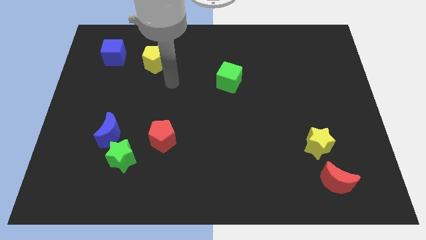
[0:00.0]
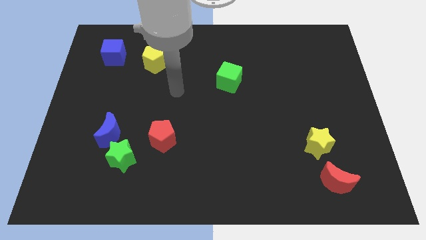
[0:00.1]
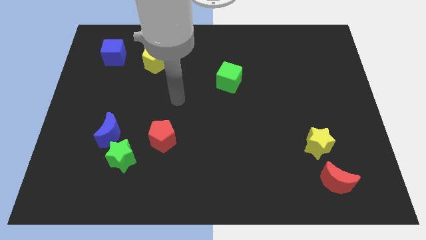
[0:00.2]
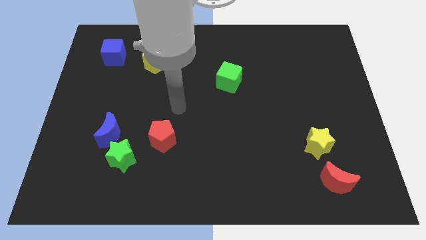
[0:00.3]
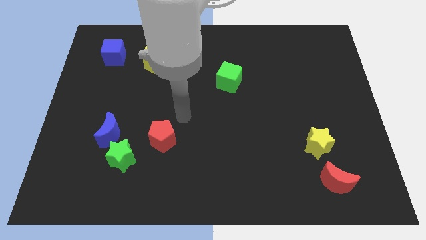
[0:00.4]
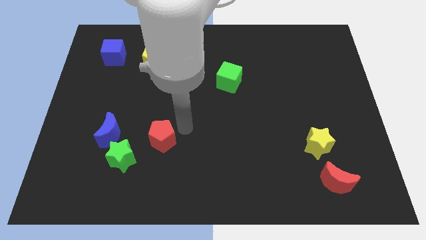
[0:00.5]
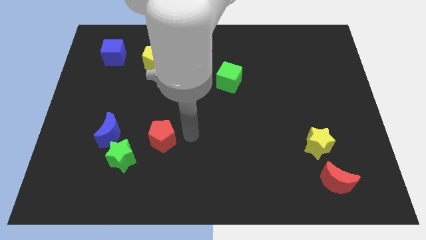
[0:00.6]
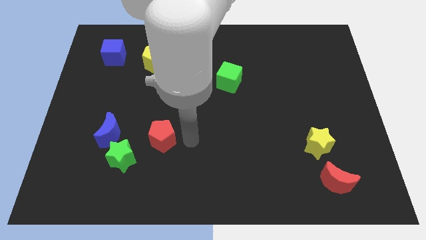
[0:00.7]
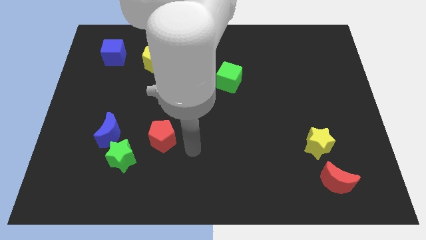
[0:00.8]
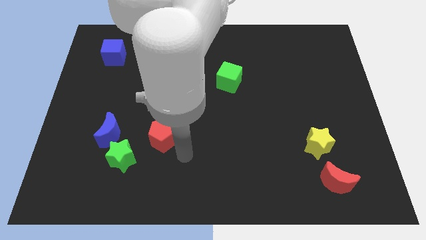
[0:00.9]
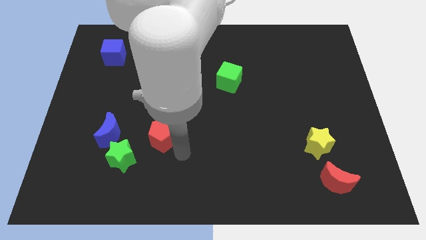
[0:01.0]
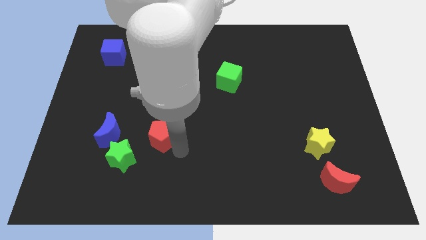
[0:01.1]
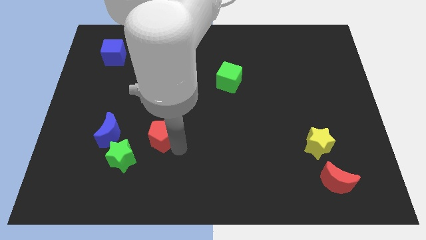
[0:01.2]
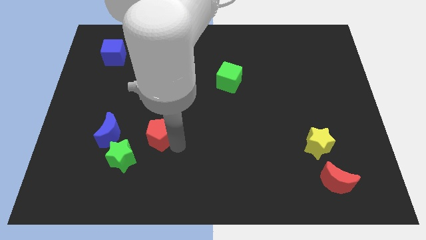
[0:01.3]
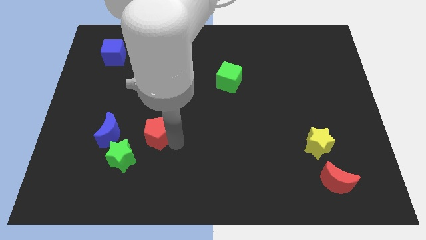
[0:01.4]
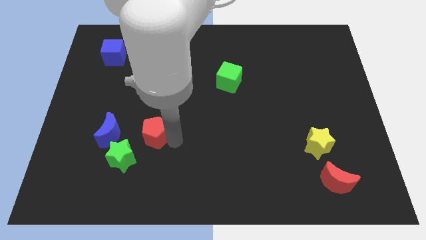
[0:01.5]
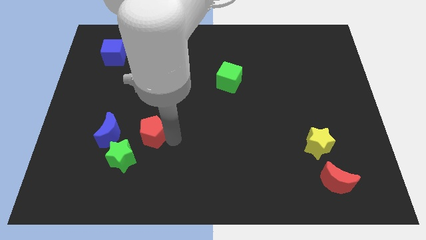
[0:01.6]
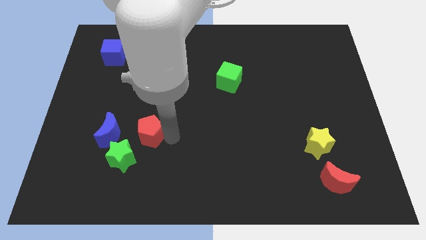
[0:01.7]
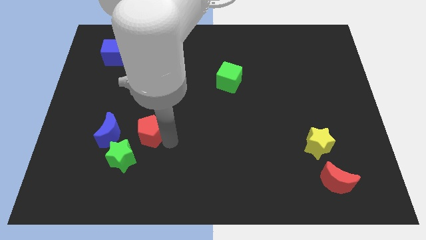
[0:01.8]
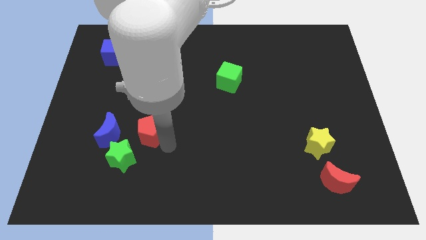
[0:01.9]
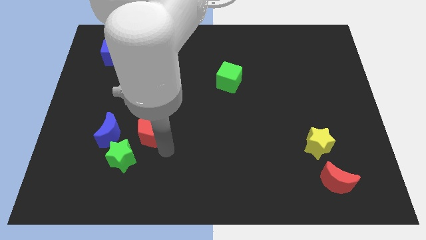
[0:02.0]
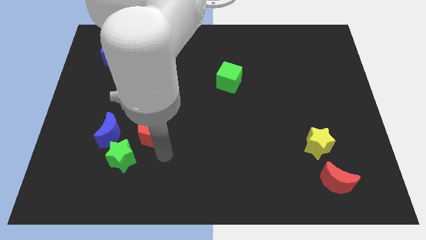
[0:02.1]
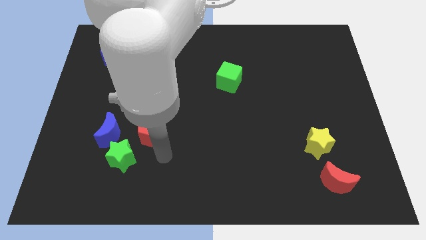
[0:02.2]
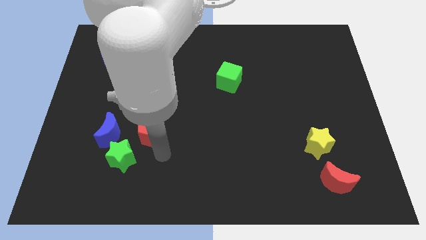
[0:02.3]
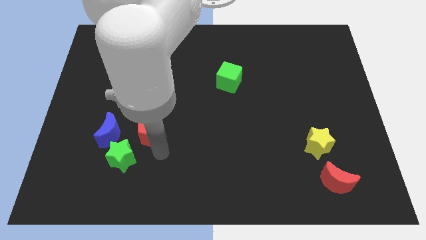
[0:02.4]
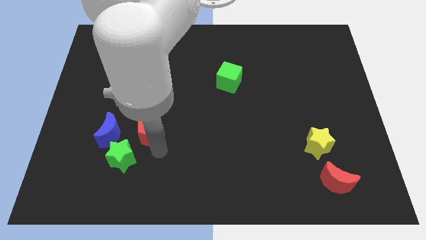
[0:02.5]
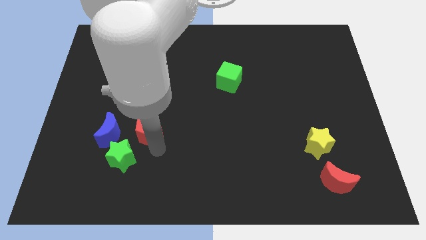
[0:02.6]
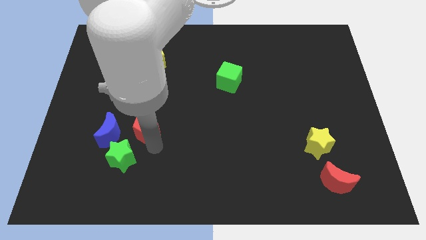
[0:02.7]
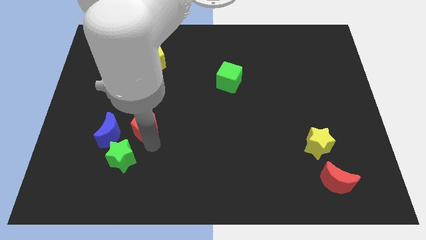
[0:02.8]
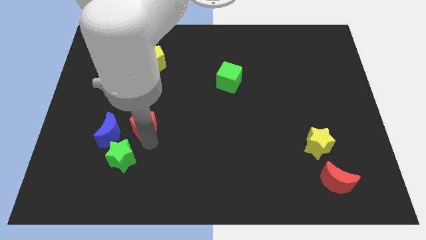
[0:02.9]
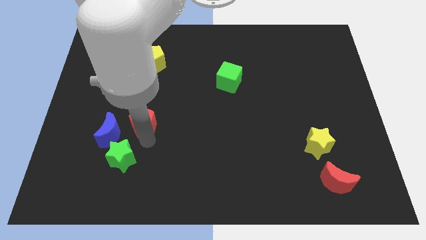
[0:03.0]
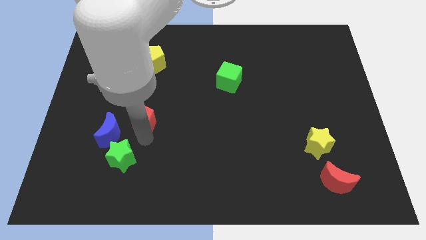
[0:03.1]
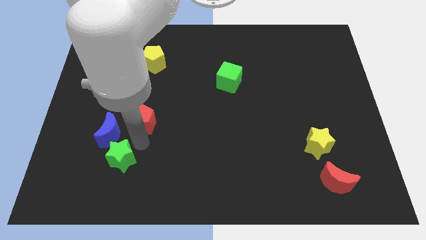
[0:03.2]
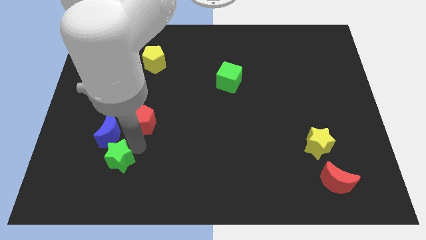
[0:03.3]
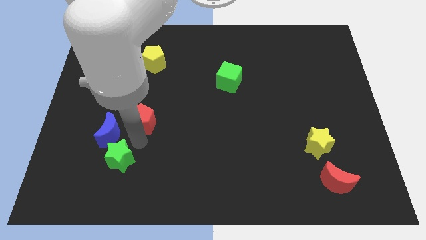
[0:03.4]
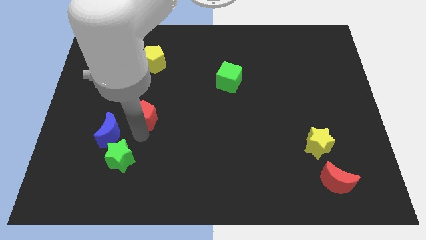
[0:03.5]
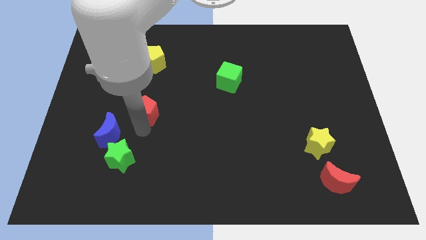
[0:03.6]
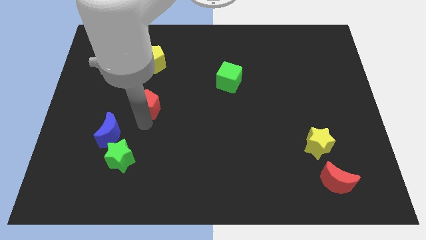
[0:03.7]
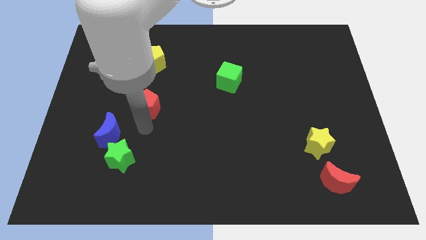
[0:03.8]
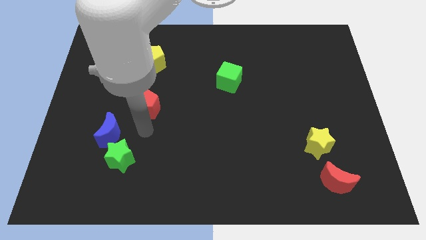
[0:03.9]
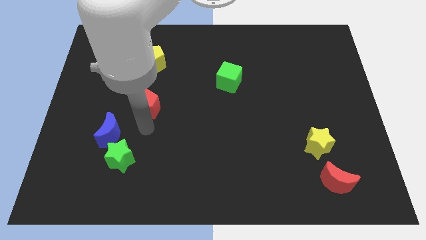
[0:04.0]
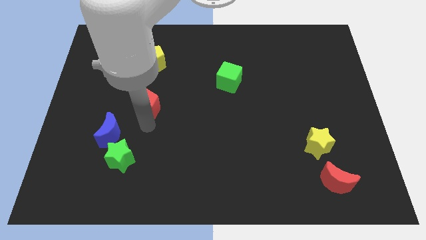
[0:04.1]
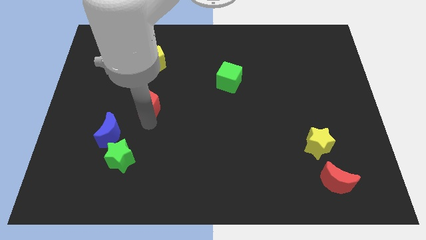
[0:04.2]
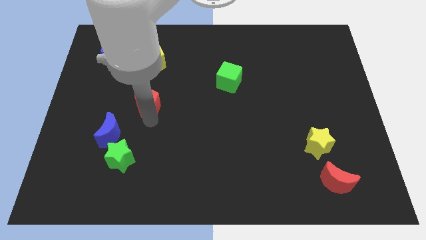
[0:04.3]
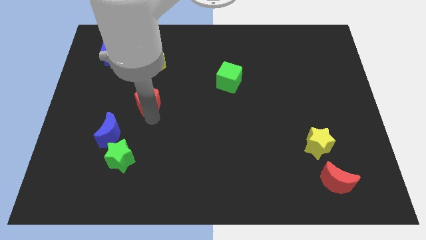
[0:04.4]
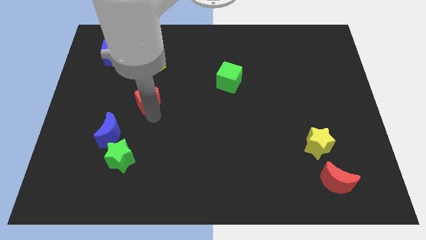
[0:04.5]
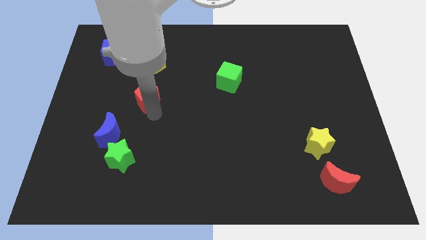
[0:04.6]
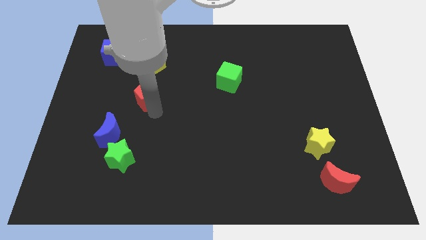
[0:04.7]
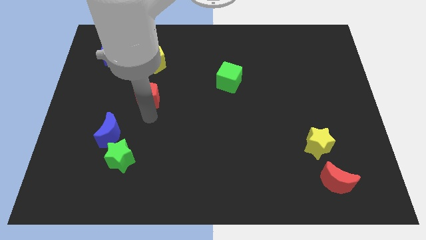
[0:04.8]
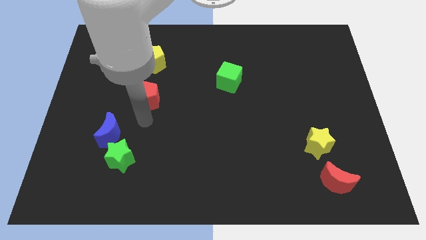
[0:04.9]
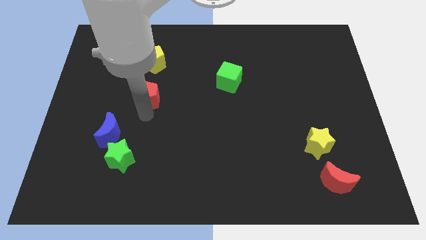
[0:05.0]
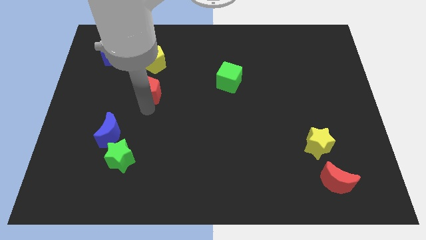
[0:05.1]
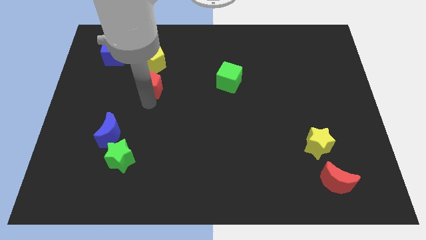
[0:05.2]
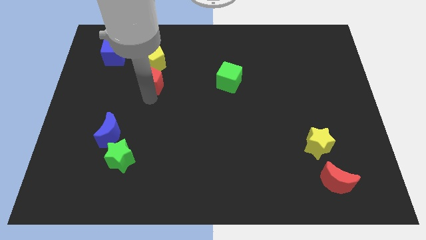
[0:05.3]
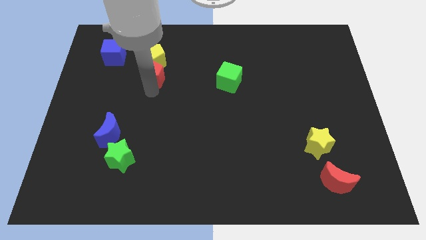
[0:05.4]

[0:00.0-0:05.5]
slide the red pentagon towards the yellow pentagon

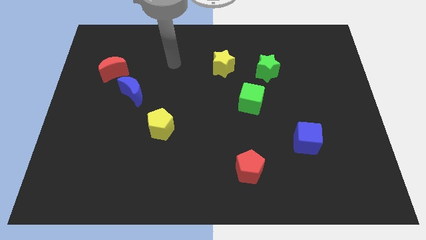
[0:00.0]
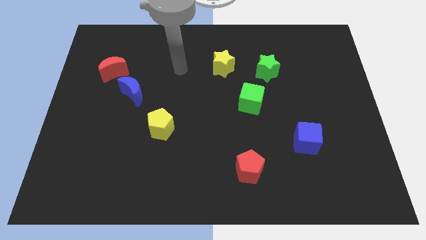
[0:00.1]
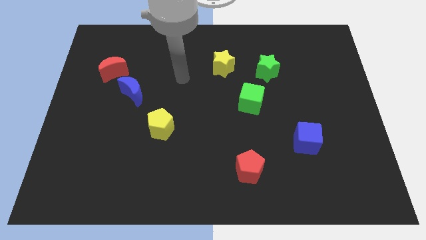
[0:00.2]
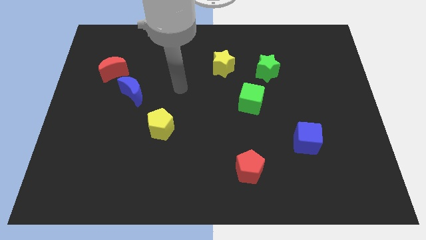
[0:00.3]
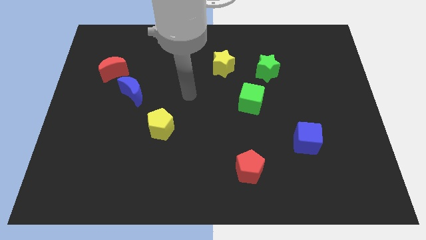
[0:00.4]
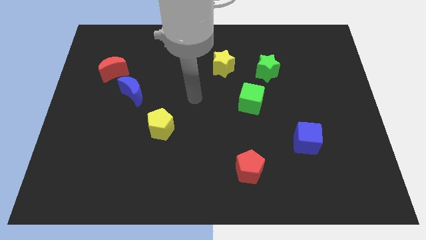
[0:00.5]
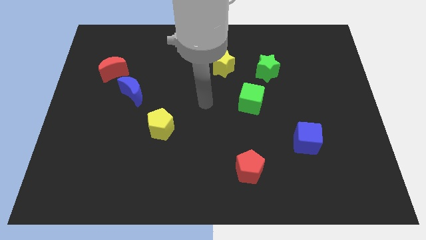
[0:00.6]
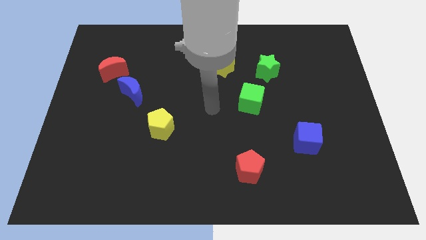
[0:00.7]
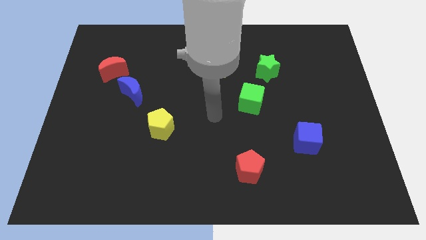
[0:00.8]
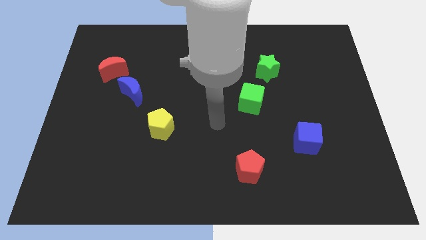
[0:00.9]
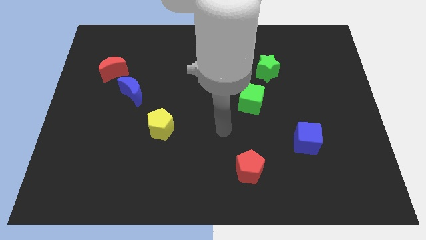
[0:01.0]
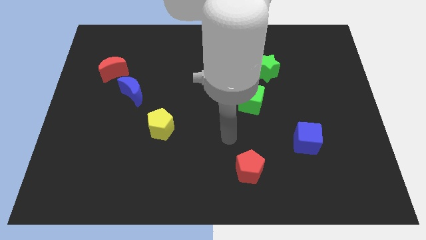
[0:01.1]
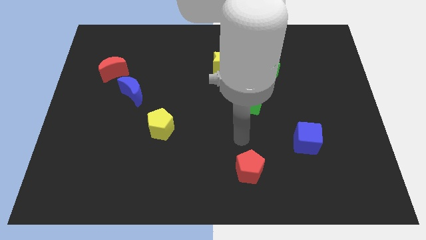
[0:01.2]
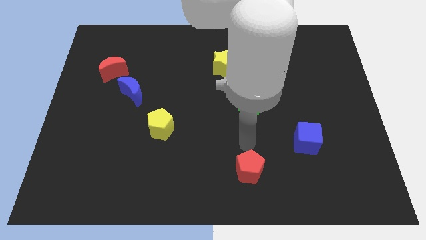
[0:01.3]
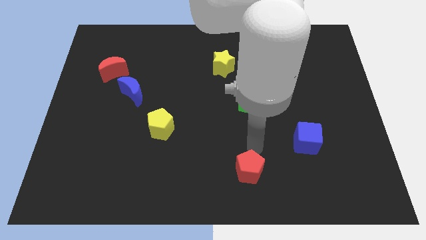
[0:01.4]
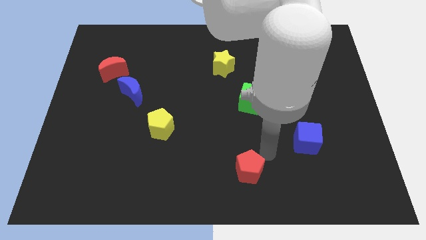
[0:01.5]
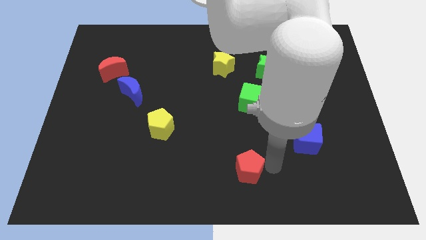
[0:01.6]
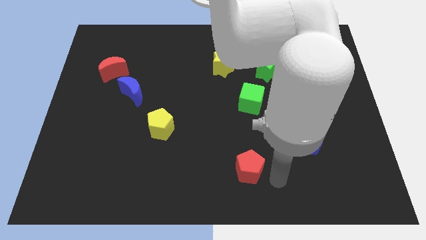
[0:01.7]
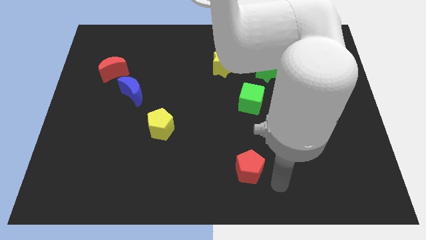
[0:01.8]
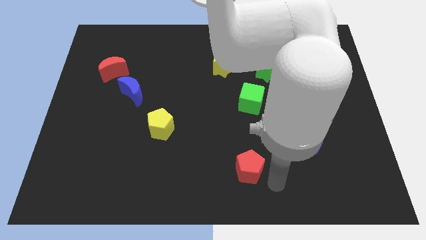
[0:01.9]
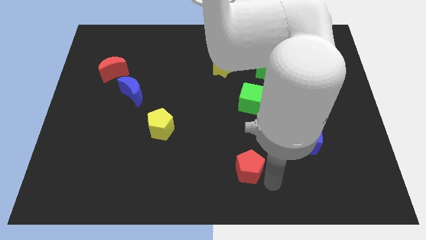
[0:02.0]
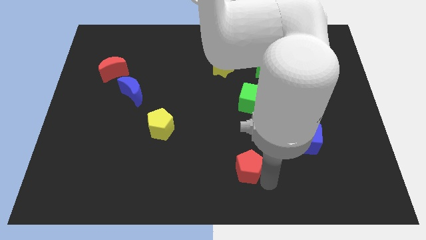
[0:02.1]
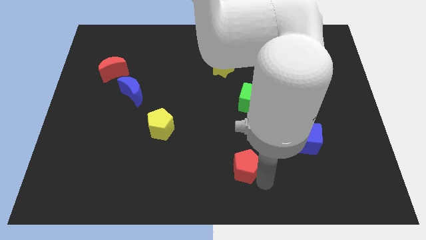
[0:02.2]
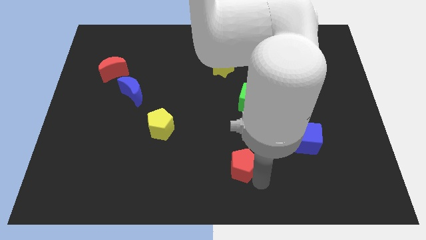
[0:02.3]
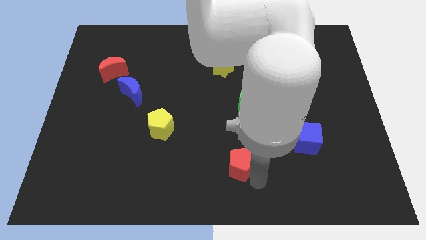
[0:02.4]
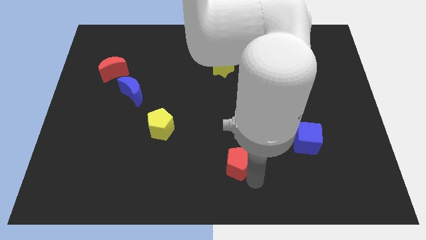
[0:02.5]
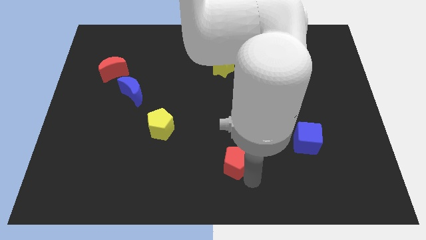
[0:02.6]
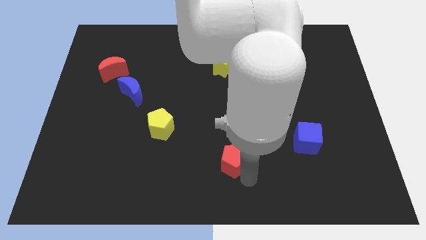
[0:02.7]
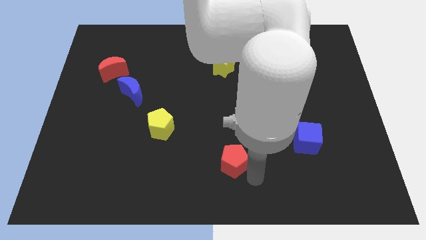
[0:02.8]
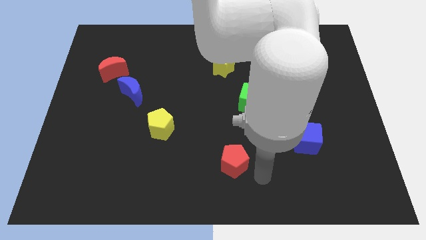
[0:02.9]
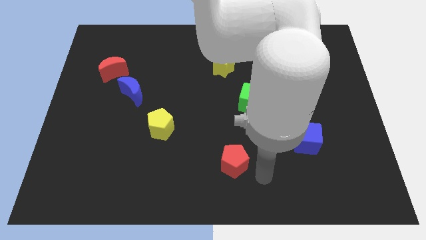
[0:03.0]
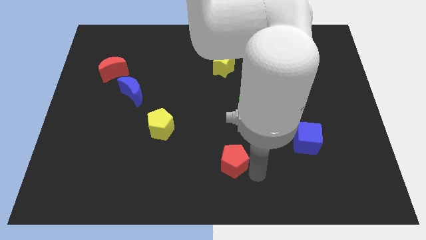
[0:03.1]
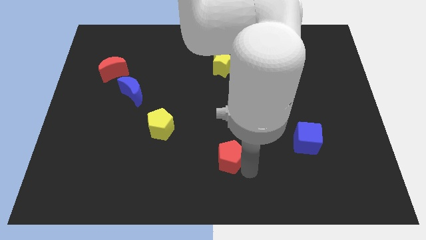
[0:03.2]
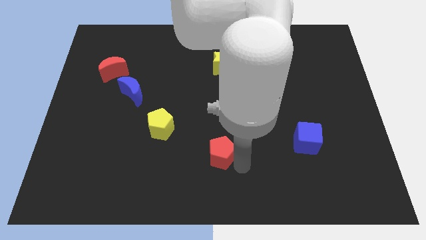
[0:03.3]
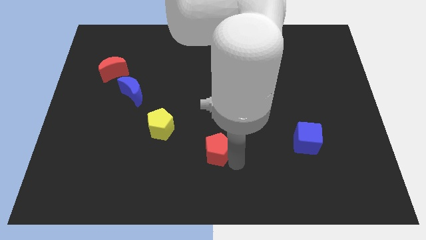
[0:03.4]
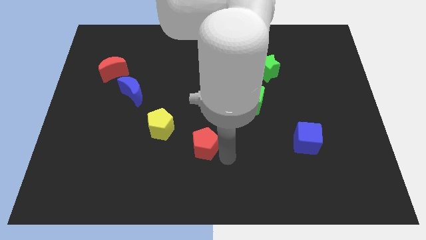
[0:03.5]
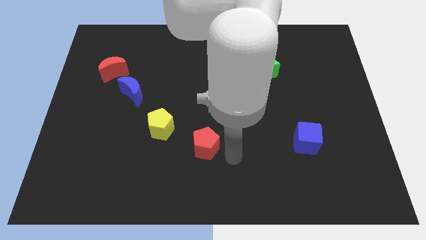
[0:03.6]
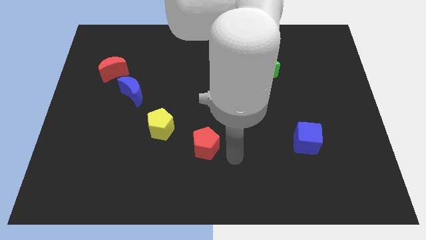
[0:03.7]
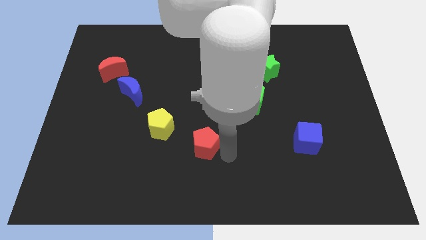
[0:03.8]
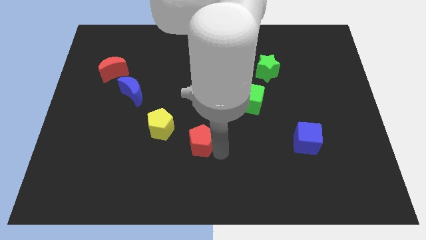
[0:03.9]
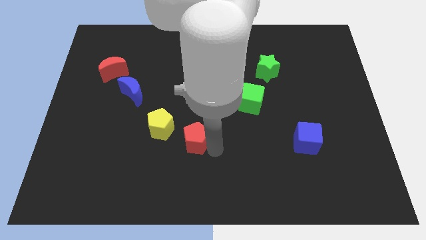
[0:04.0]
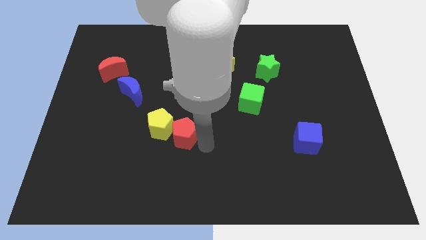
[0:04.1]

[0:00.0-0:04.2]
slide the red pentagon next to the yellow pentagon
